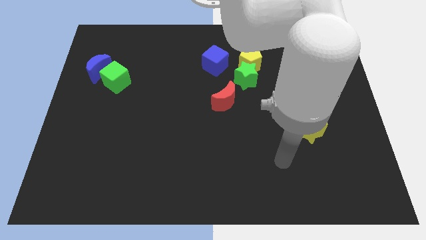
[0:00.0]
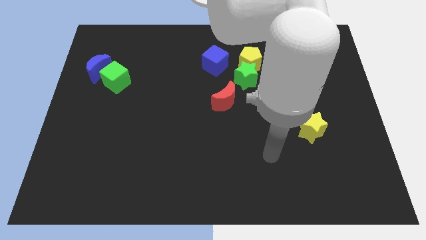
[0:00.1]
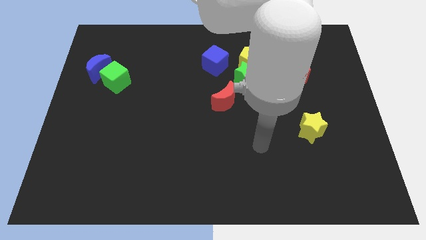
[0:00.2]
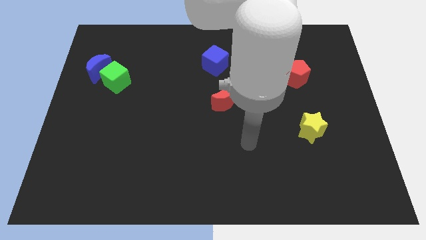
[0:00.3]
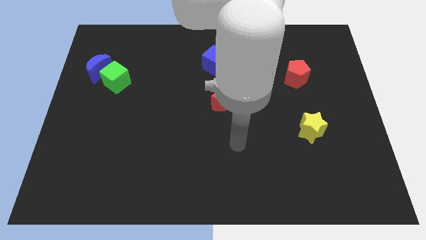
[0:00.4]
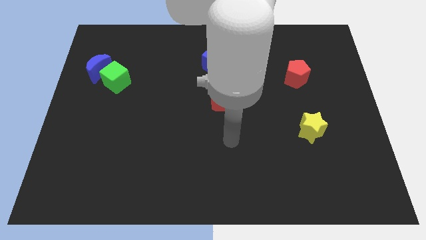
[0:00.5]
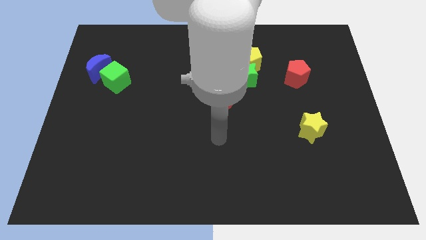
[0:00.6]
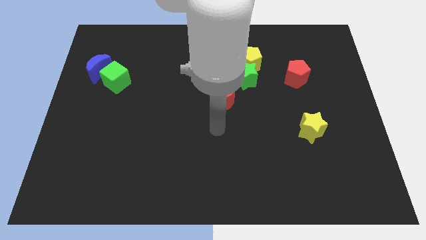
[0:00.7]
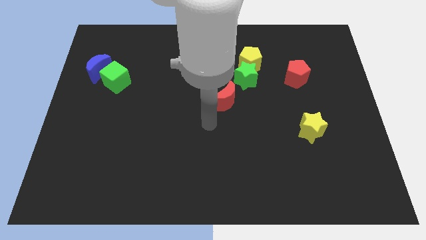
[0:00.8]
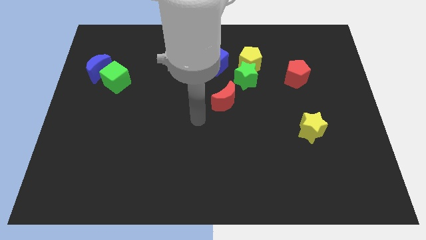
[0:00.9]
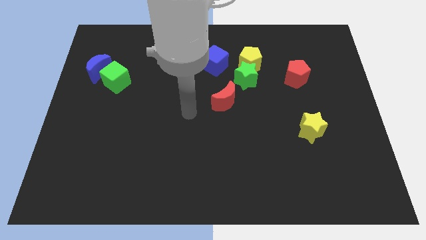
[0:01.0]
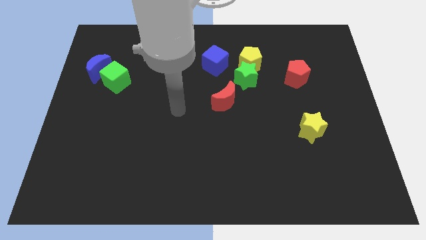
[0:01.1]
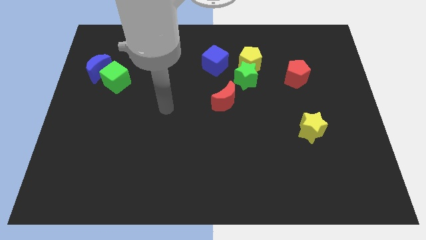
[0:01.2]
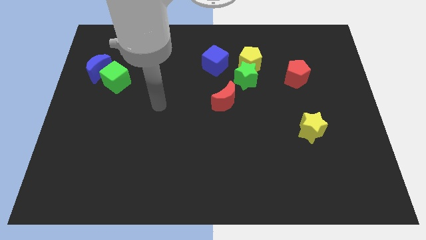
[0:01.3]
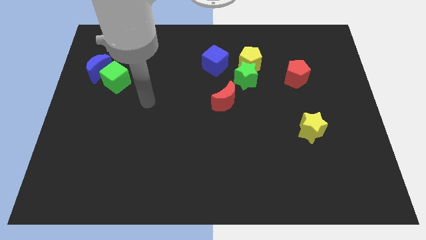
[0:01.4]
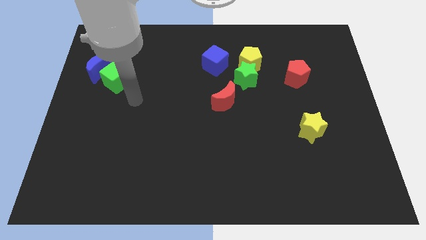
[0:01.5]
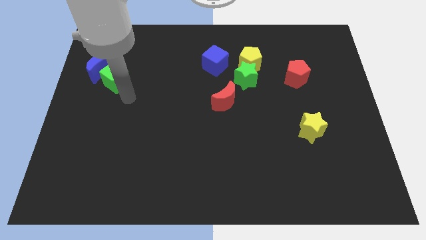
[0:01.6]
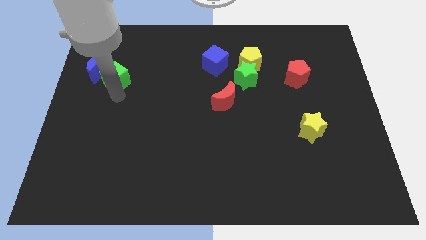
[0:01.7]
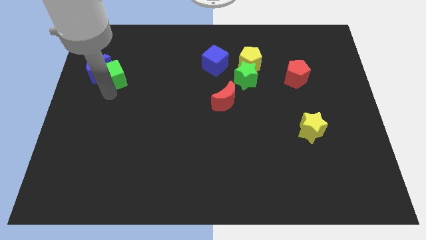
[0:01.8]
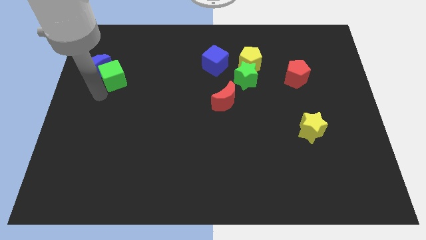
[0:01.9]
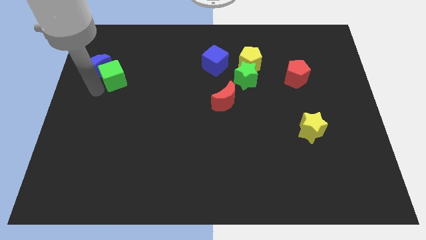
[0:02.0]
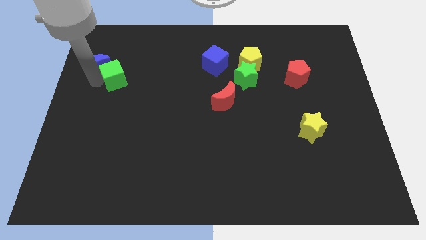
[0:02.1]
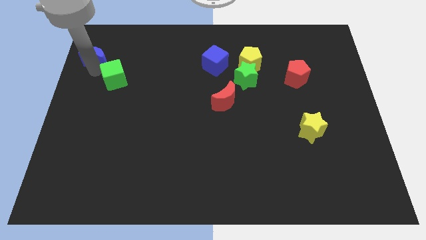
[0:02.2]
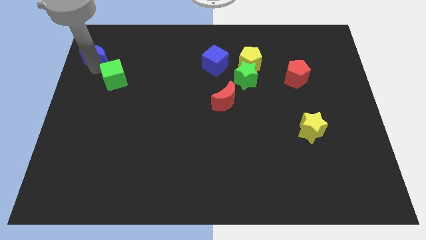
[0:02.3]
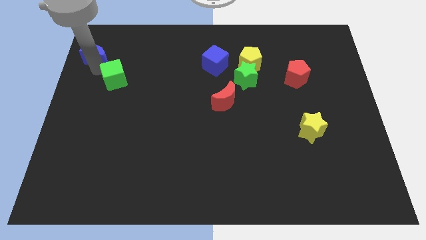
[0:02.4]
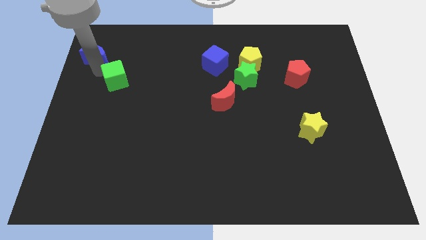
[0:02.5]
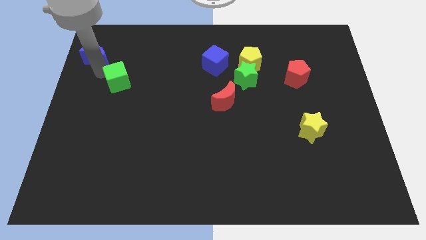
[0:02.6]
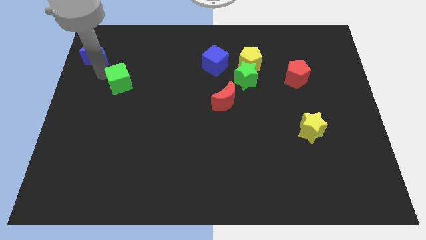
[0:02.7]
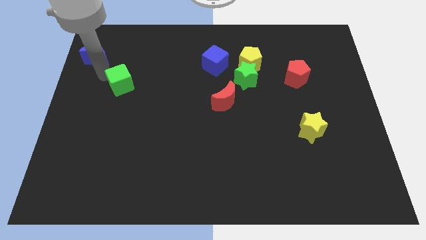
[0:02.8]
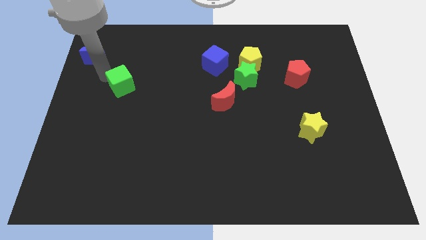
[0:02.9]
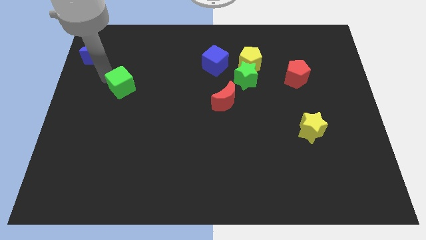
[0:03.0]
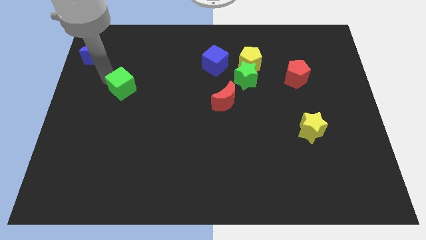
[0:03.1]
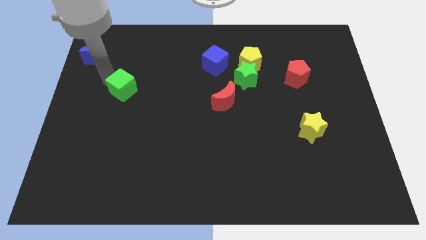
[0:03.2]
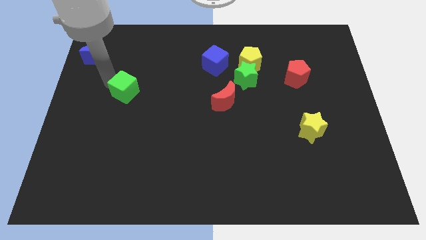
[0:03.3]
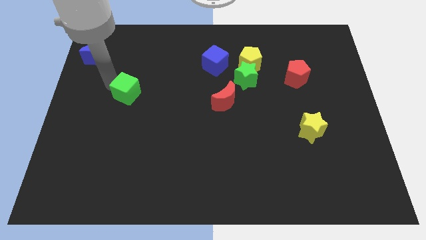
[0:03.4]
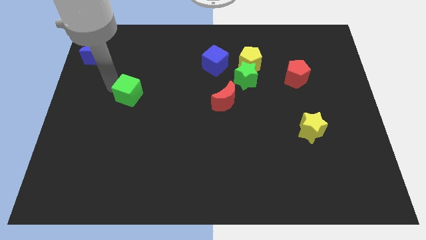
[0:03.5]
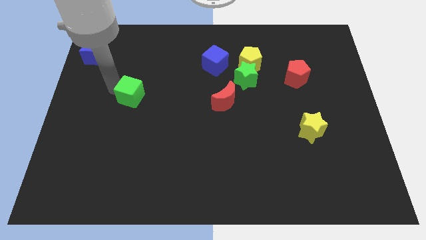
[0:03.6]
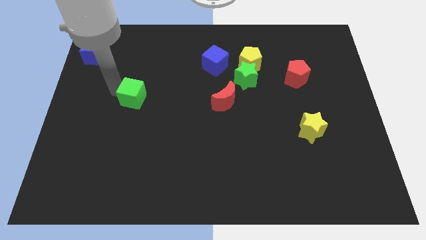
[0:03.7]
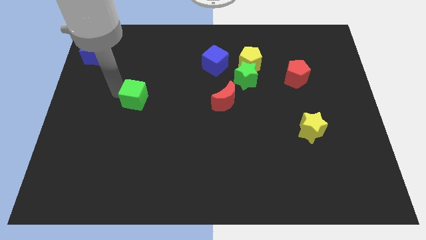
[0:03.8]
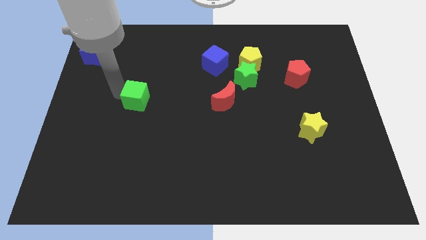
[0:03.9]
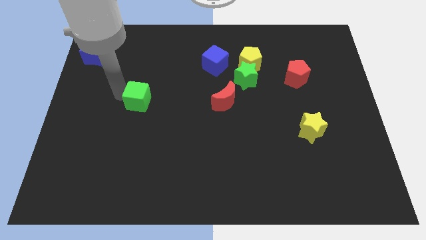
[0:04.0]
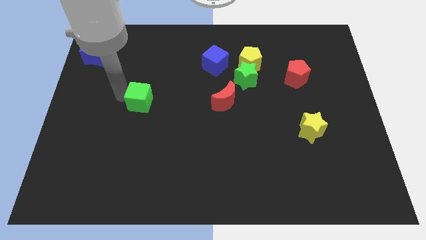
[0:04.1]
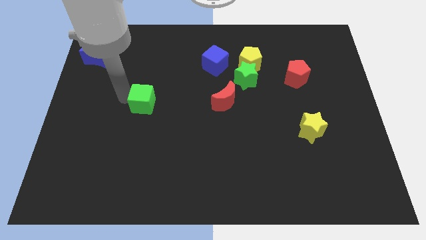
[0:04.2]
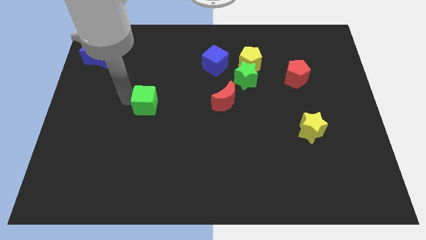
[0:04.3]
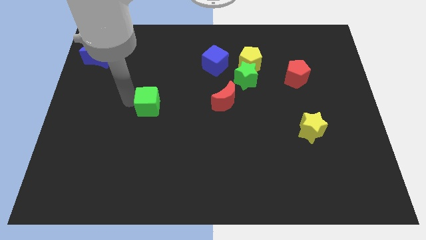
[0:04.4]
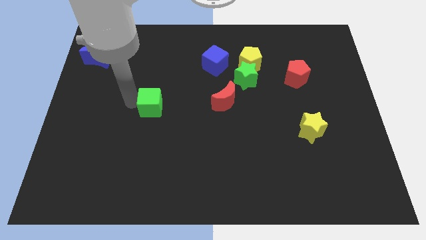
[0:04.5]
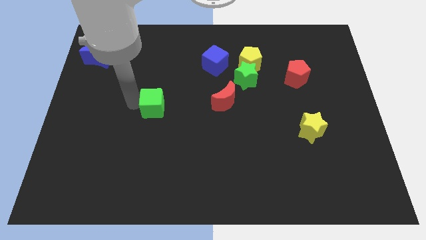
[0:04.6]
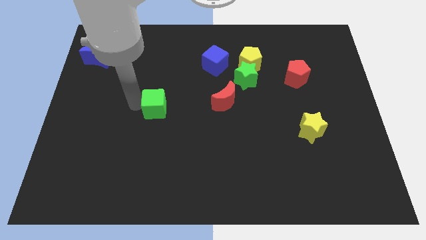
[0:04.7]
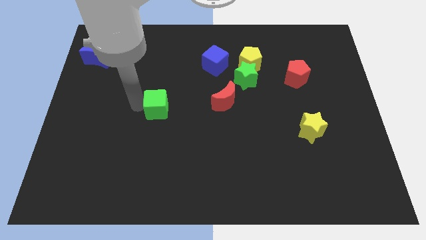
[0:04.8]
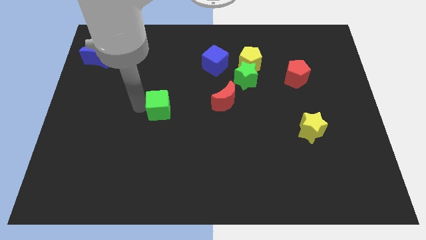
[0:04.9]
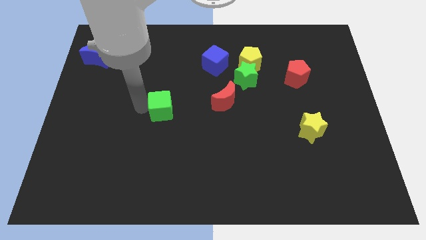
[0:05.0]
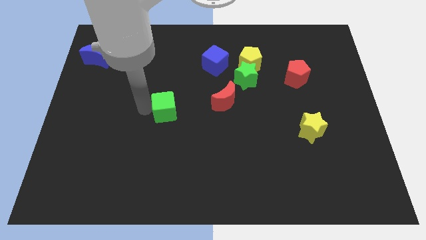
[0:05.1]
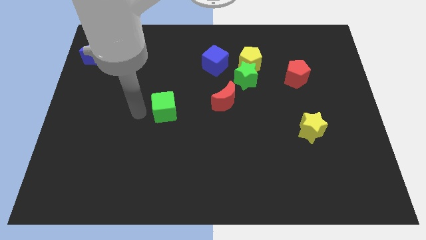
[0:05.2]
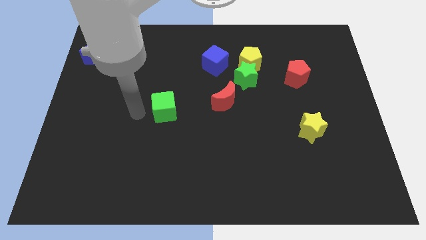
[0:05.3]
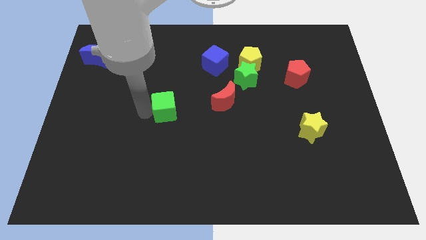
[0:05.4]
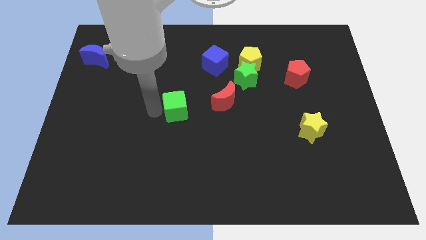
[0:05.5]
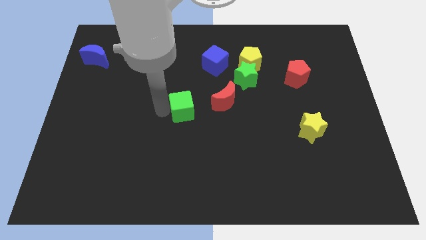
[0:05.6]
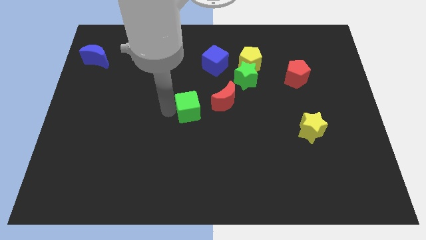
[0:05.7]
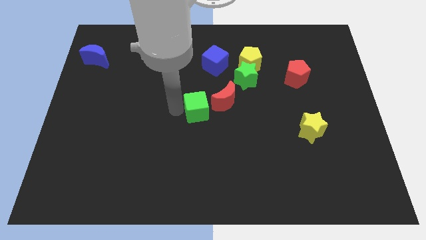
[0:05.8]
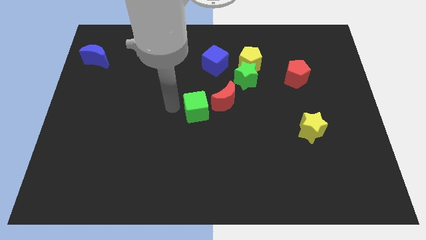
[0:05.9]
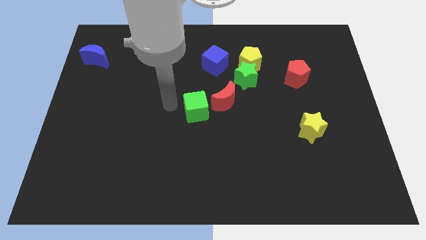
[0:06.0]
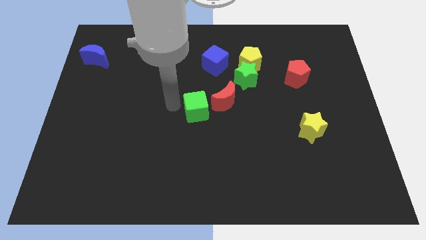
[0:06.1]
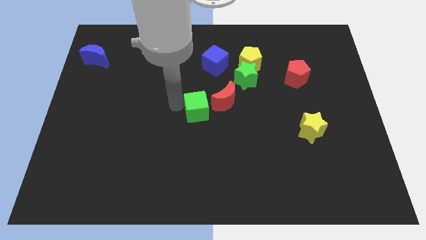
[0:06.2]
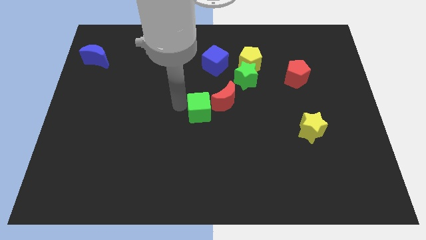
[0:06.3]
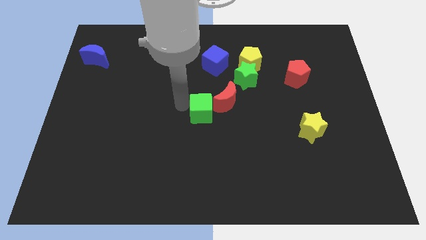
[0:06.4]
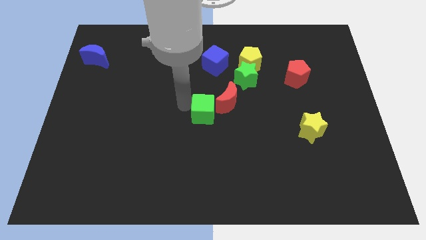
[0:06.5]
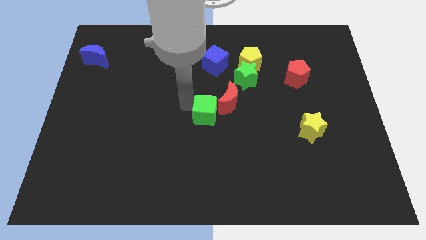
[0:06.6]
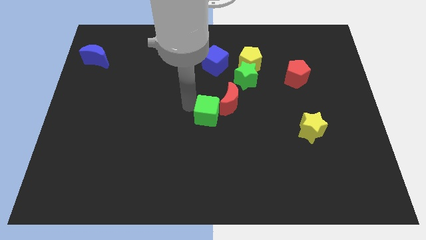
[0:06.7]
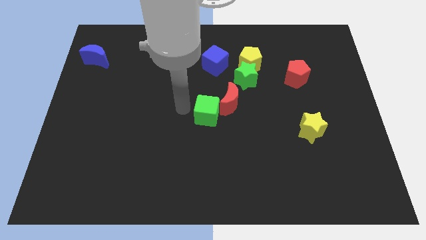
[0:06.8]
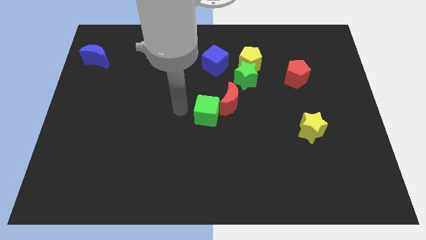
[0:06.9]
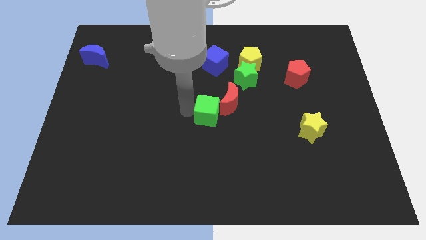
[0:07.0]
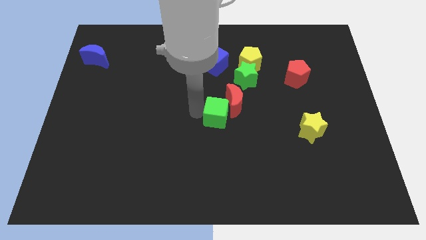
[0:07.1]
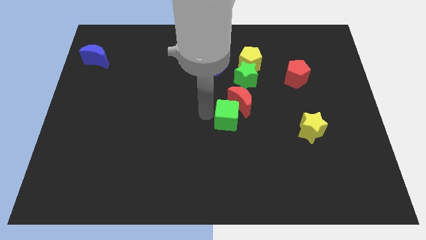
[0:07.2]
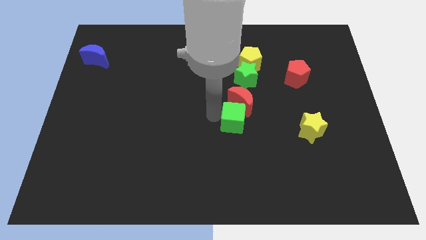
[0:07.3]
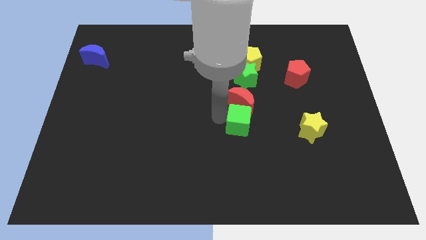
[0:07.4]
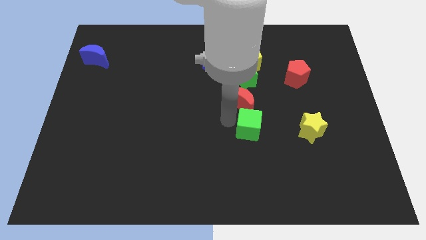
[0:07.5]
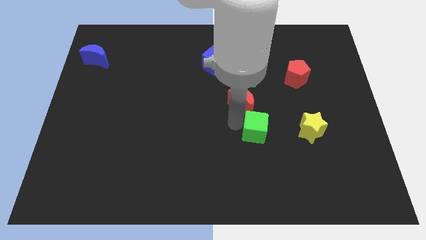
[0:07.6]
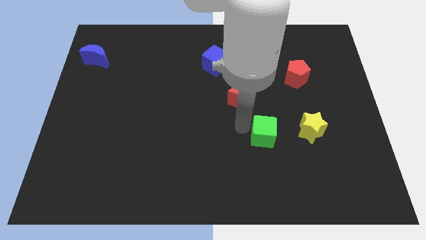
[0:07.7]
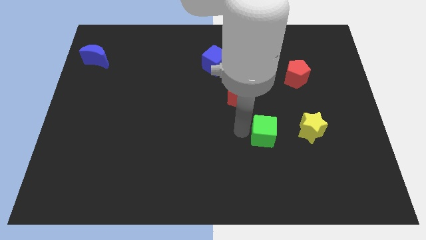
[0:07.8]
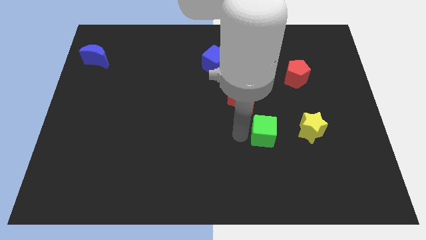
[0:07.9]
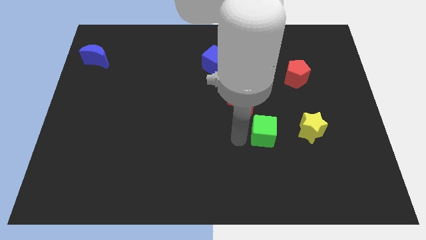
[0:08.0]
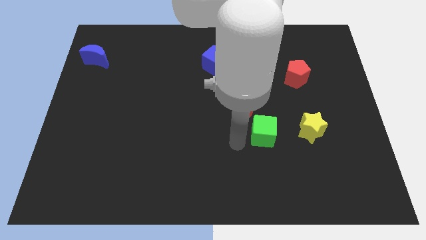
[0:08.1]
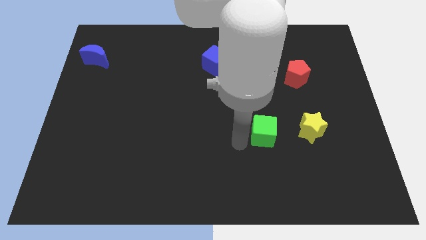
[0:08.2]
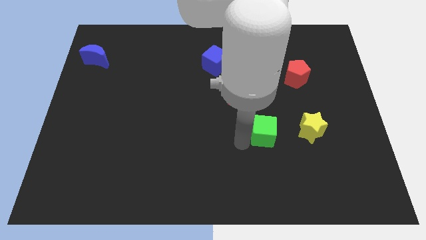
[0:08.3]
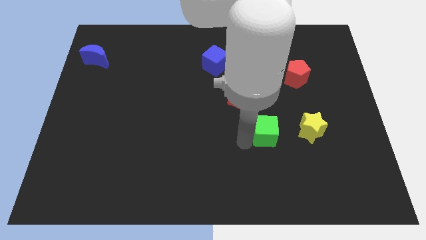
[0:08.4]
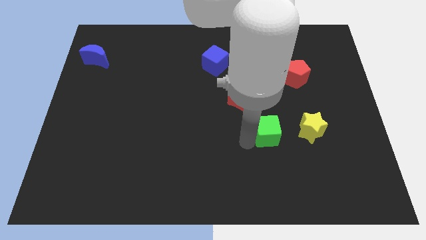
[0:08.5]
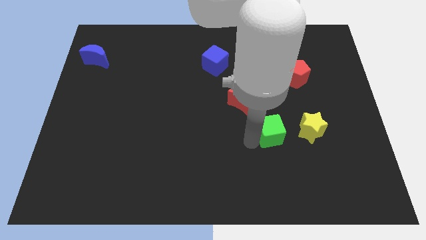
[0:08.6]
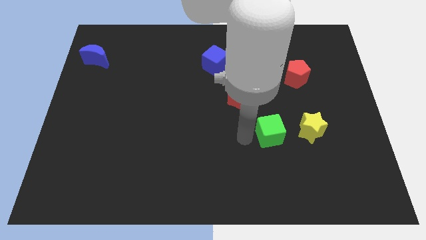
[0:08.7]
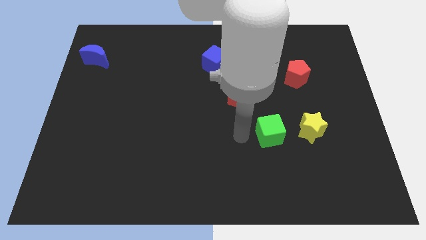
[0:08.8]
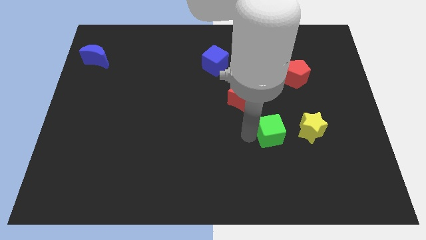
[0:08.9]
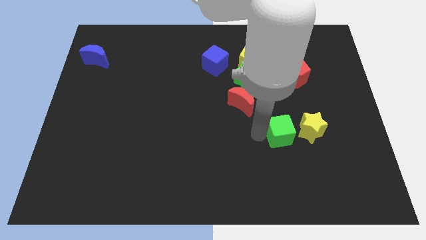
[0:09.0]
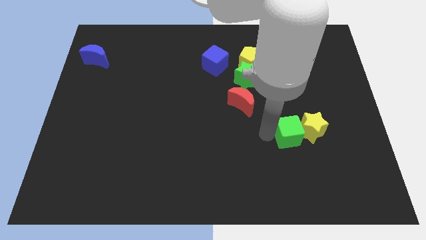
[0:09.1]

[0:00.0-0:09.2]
move the green cube close to the yellow star
